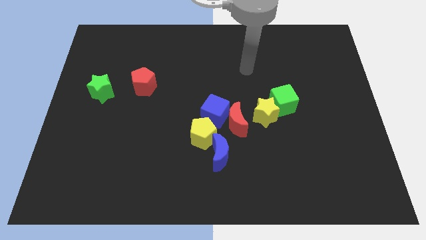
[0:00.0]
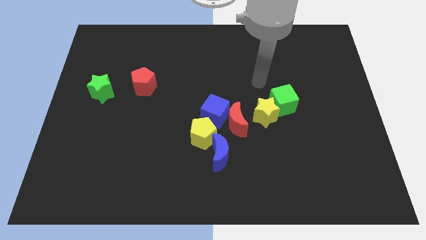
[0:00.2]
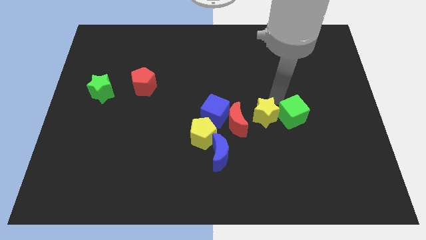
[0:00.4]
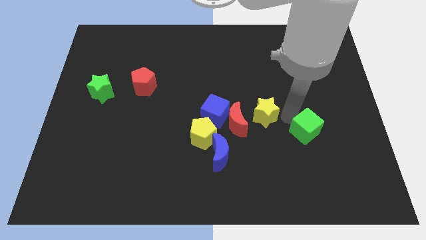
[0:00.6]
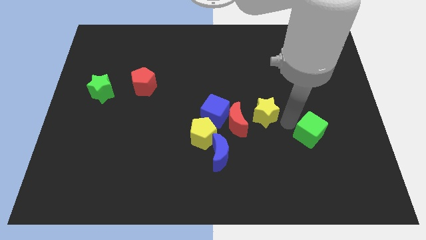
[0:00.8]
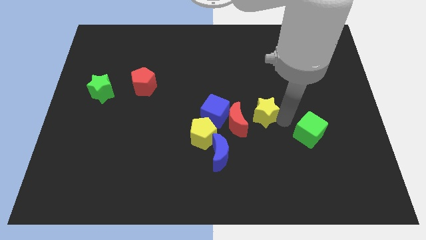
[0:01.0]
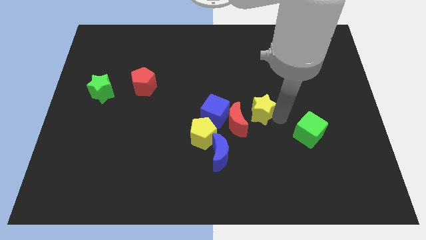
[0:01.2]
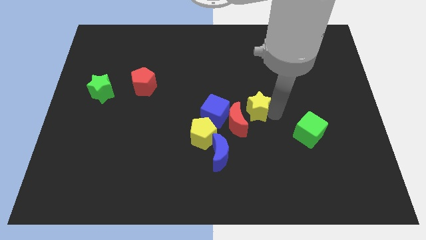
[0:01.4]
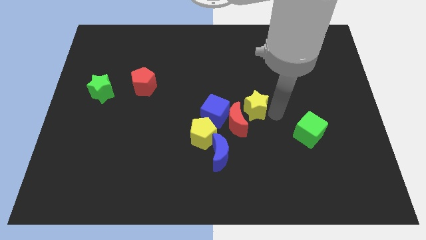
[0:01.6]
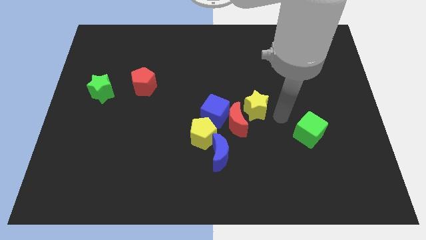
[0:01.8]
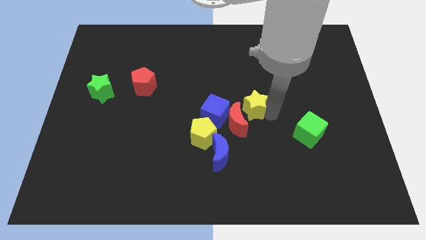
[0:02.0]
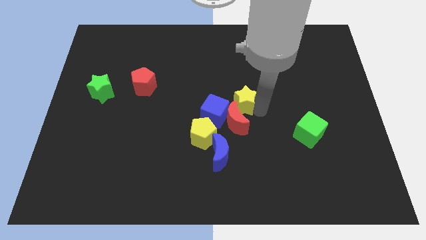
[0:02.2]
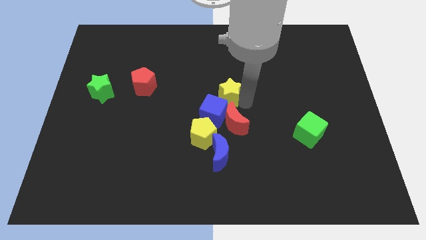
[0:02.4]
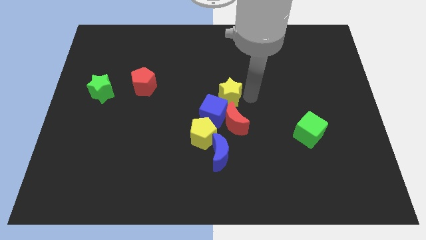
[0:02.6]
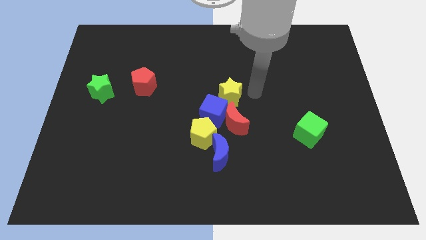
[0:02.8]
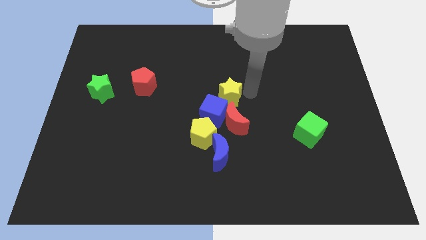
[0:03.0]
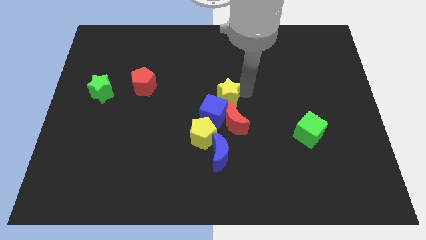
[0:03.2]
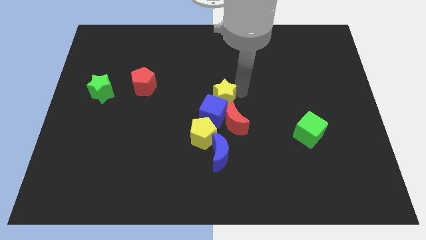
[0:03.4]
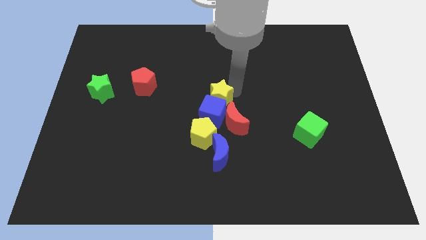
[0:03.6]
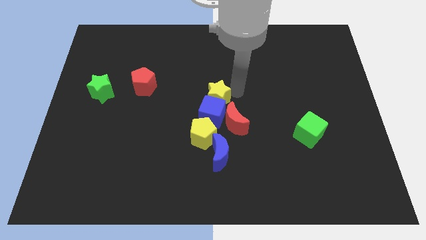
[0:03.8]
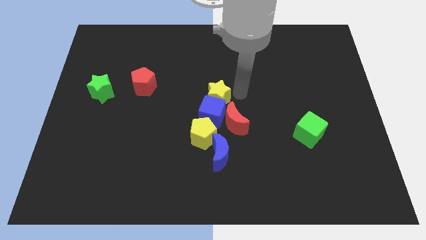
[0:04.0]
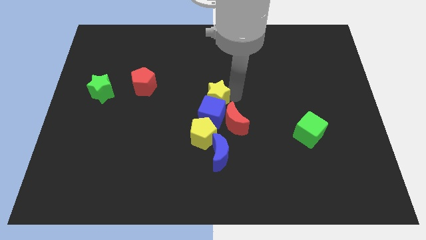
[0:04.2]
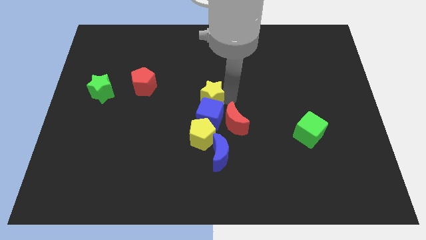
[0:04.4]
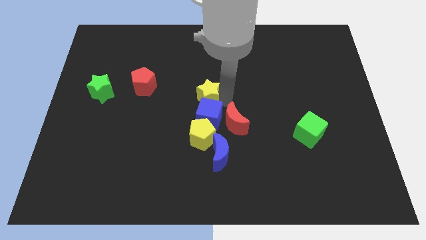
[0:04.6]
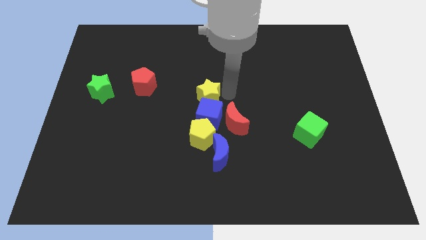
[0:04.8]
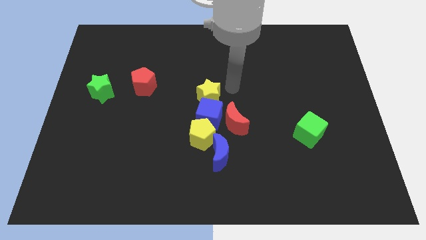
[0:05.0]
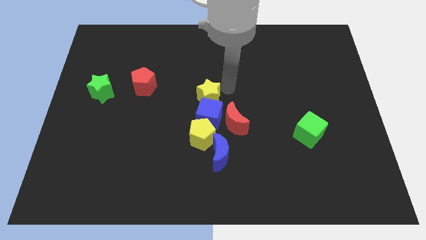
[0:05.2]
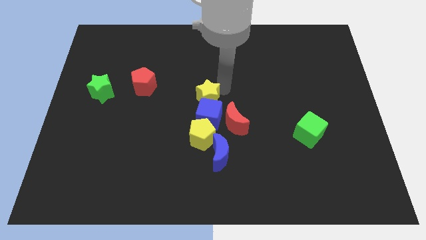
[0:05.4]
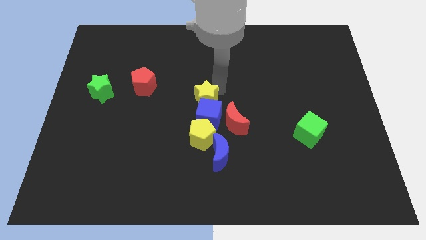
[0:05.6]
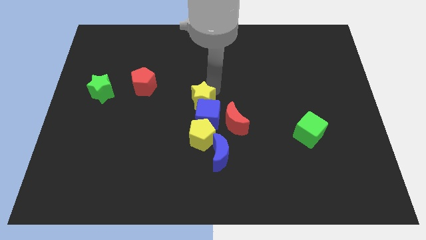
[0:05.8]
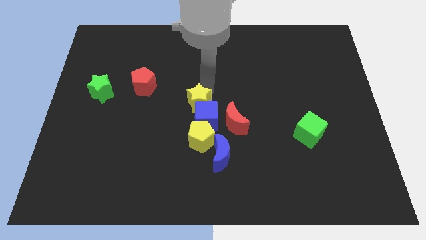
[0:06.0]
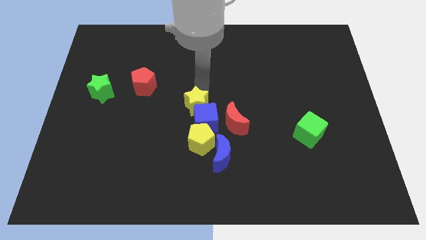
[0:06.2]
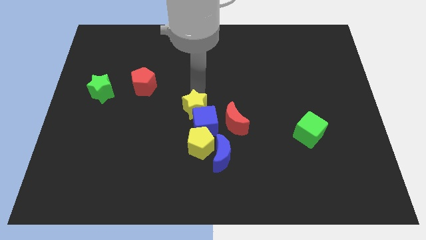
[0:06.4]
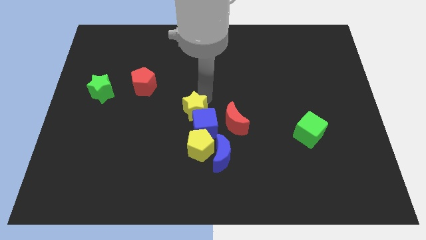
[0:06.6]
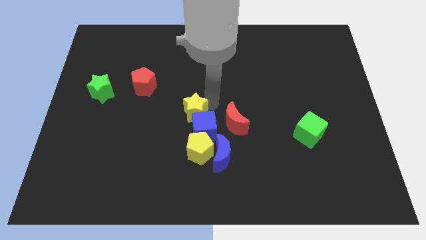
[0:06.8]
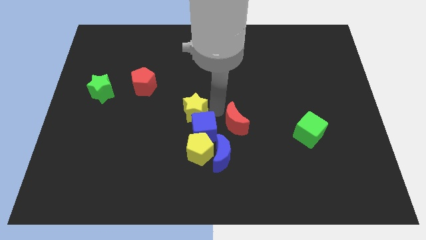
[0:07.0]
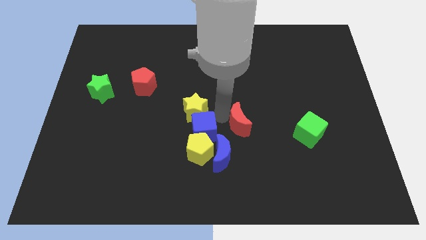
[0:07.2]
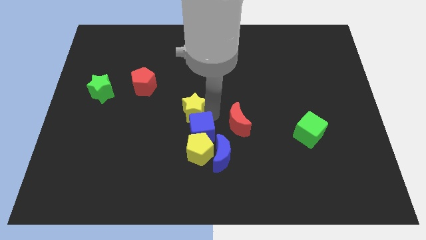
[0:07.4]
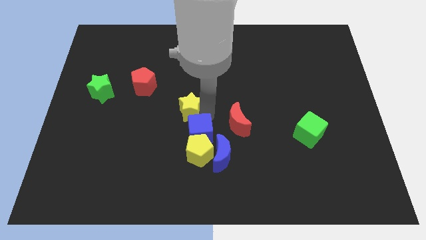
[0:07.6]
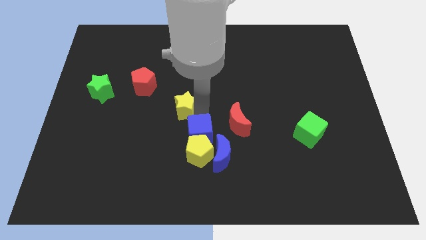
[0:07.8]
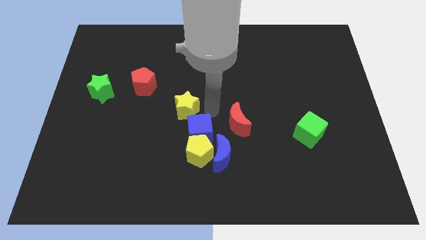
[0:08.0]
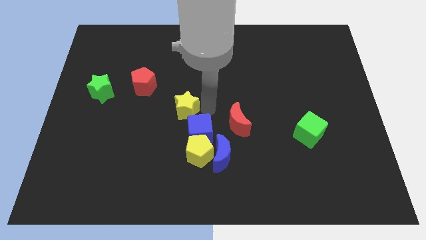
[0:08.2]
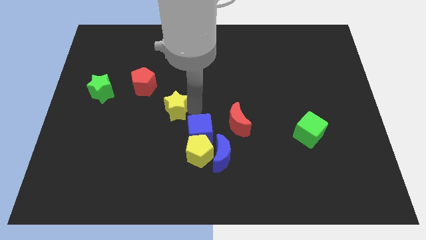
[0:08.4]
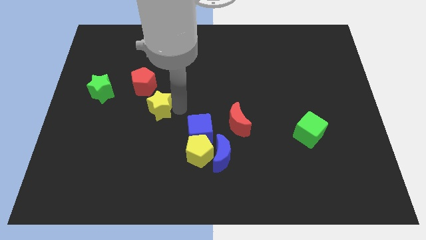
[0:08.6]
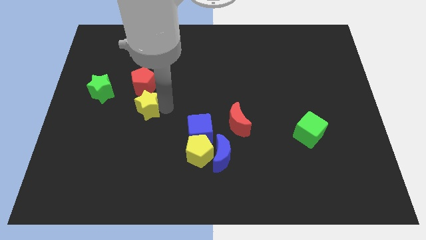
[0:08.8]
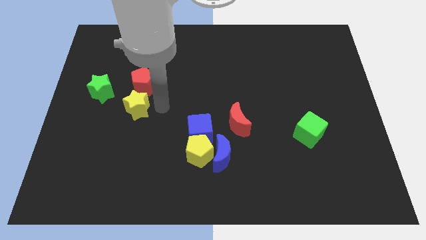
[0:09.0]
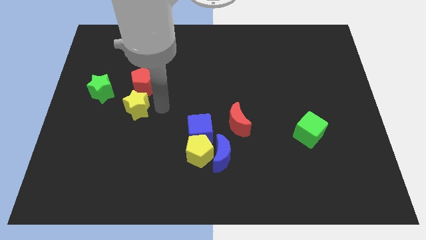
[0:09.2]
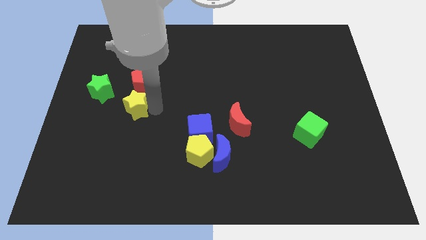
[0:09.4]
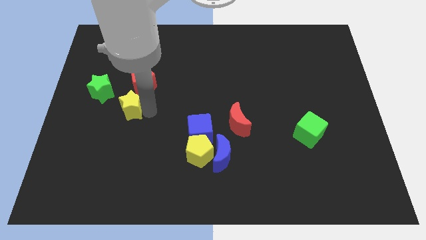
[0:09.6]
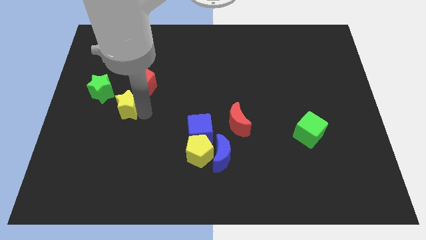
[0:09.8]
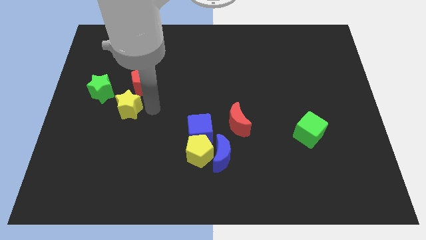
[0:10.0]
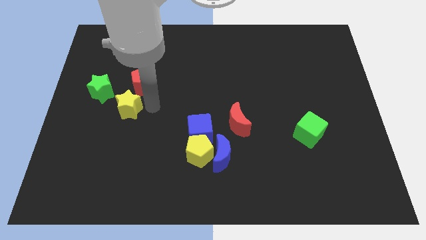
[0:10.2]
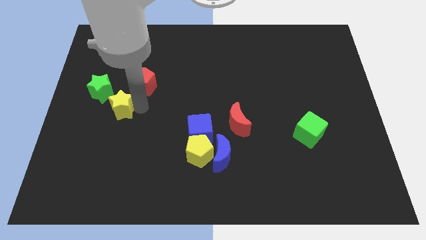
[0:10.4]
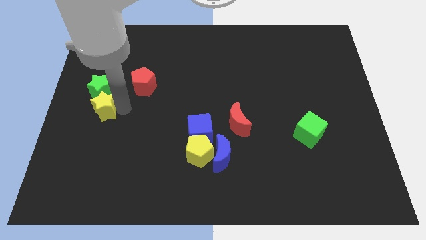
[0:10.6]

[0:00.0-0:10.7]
move the yellow star to the center left

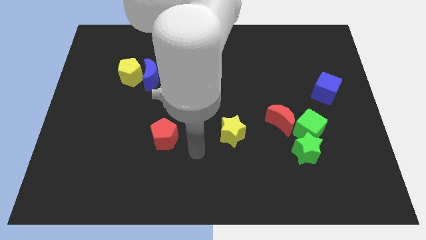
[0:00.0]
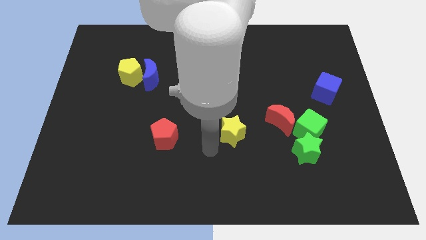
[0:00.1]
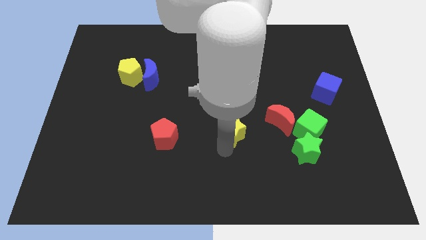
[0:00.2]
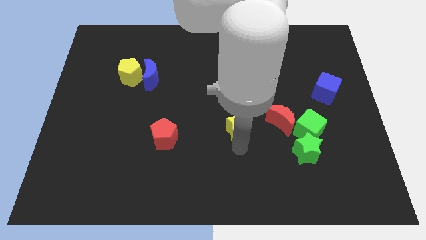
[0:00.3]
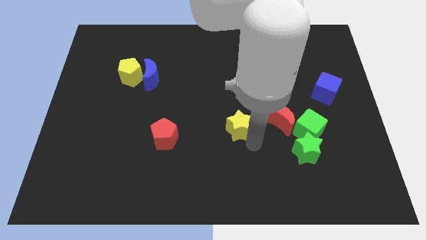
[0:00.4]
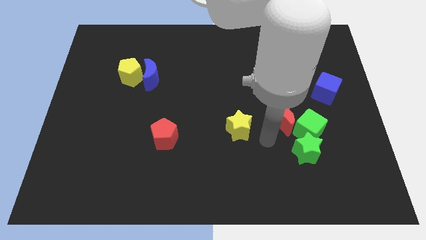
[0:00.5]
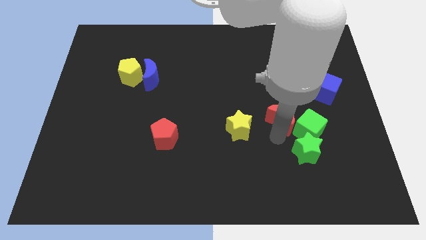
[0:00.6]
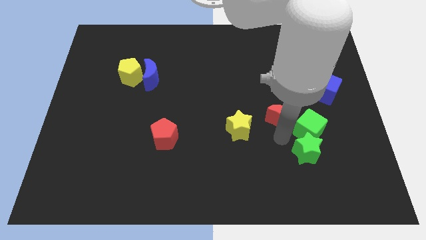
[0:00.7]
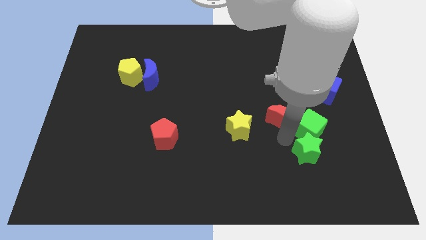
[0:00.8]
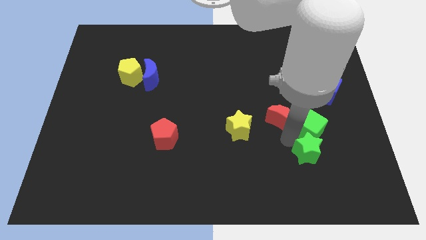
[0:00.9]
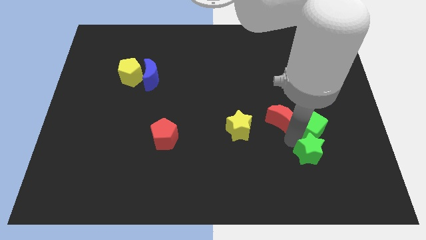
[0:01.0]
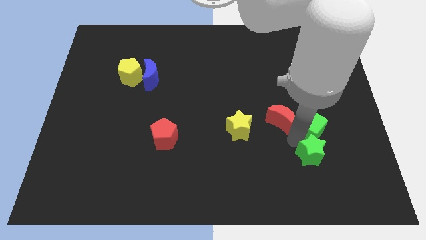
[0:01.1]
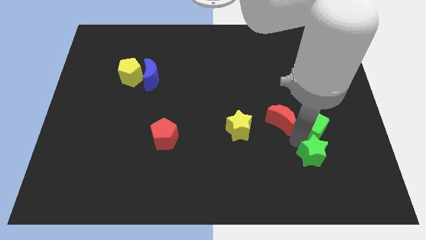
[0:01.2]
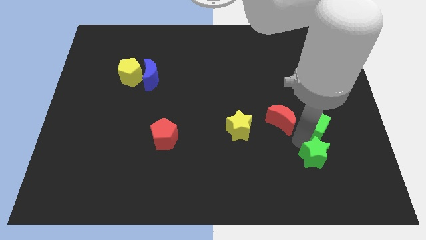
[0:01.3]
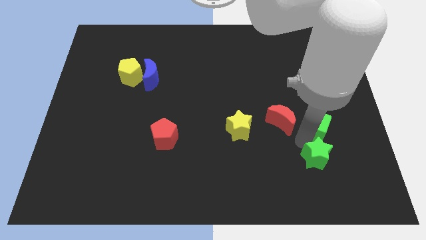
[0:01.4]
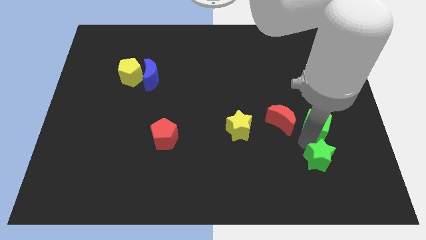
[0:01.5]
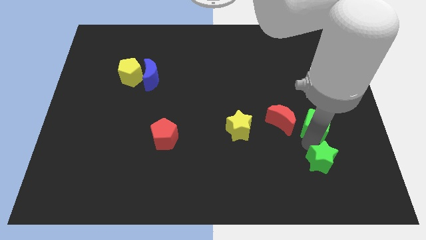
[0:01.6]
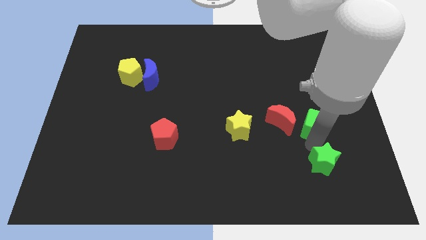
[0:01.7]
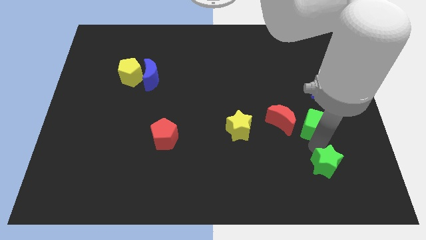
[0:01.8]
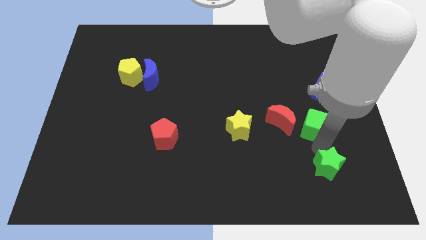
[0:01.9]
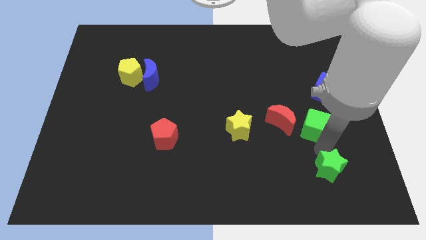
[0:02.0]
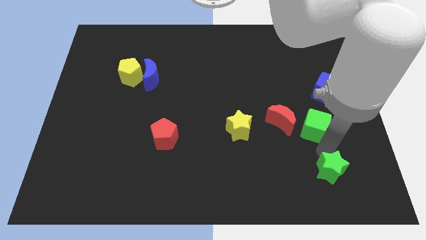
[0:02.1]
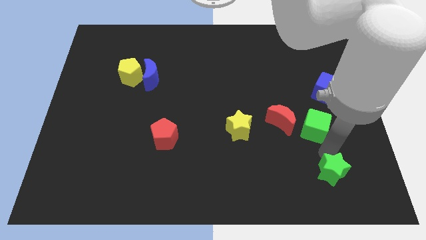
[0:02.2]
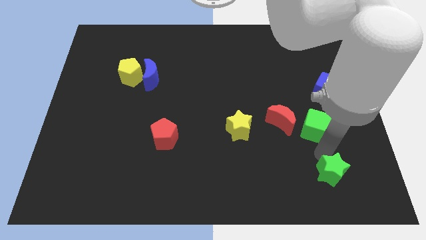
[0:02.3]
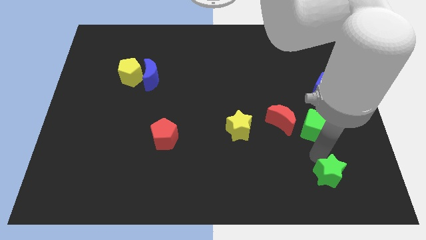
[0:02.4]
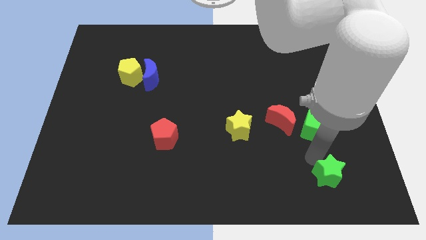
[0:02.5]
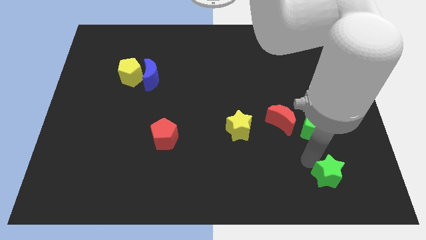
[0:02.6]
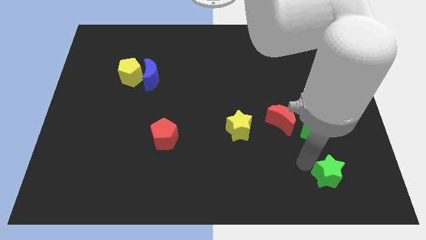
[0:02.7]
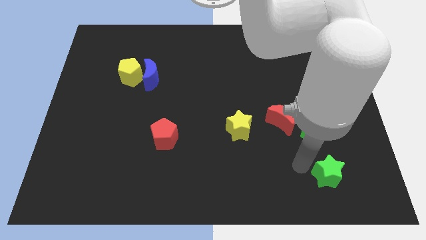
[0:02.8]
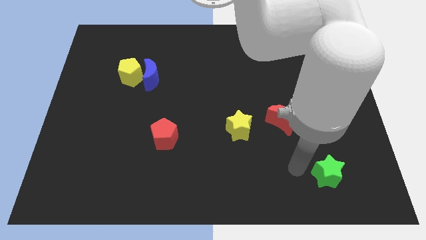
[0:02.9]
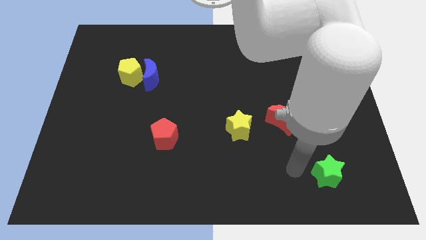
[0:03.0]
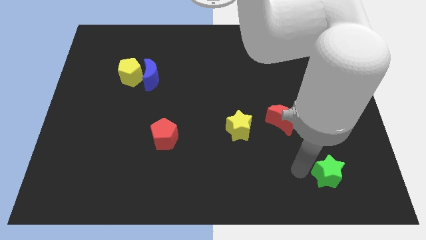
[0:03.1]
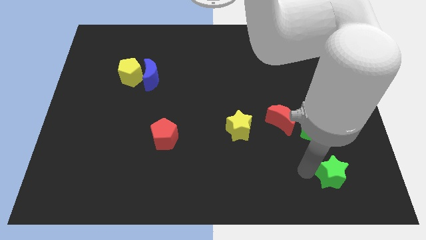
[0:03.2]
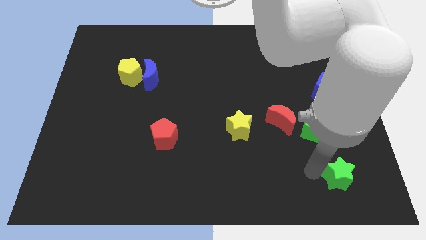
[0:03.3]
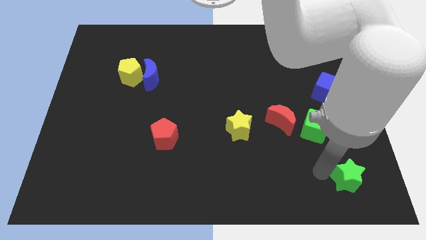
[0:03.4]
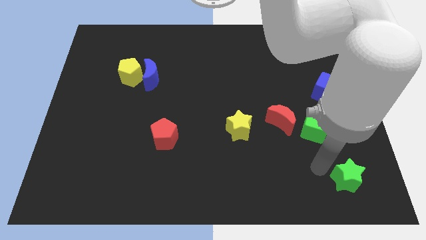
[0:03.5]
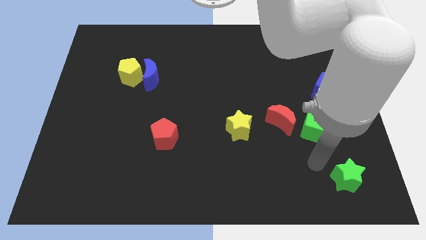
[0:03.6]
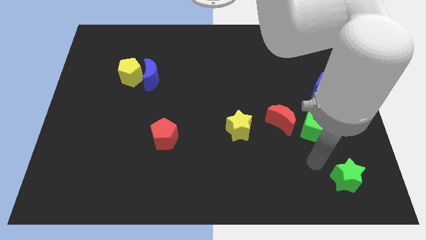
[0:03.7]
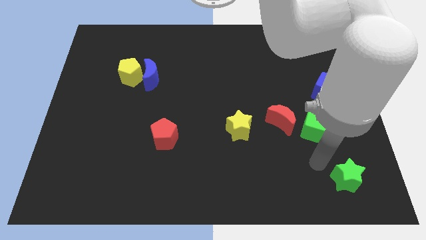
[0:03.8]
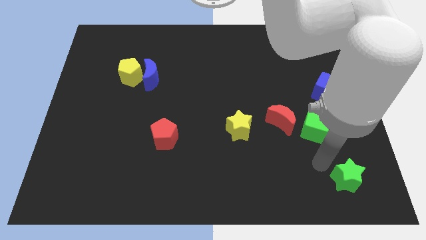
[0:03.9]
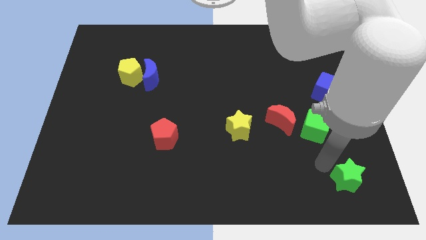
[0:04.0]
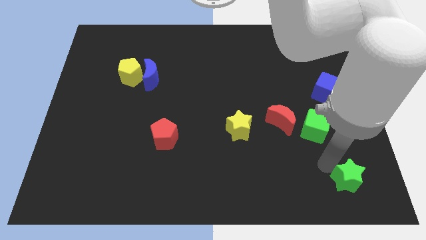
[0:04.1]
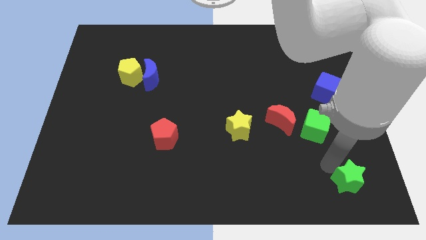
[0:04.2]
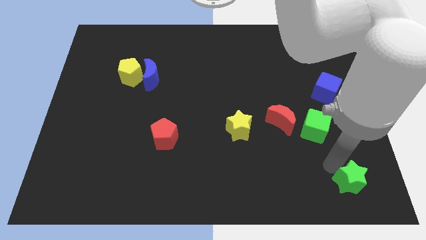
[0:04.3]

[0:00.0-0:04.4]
move the green star to the bottom right corner
